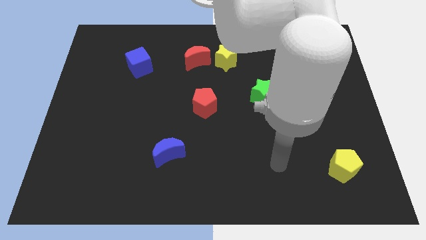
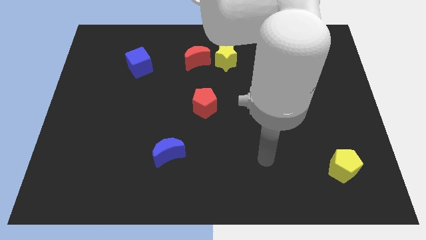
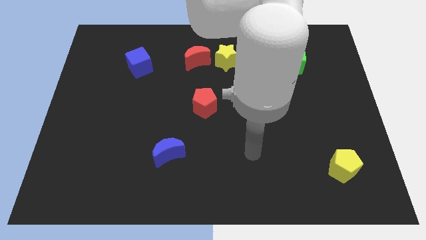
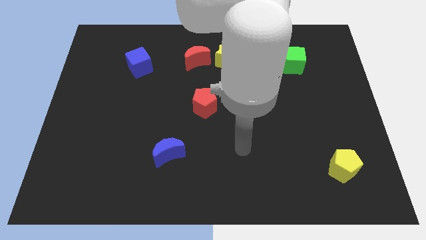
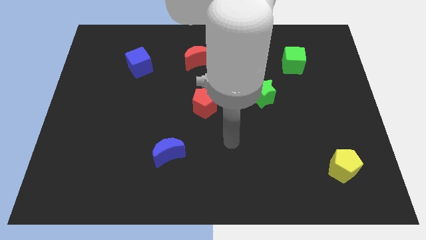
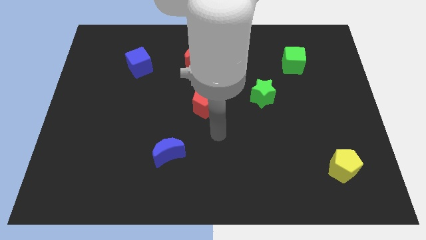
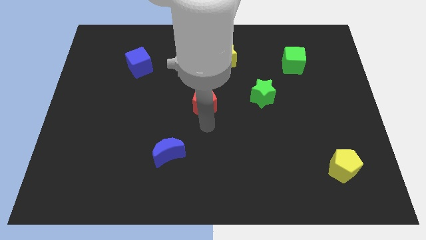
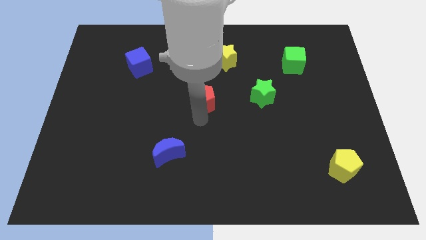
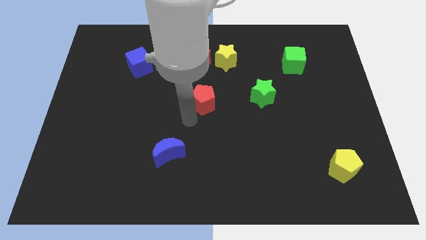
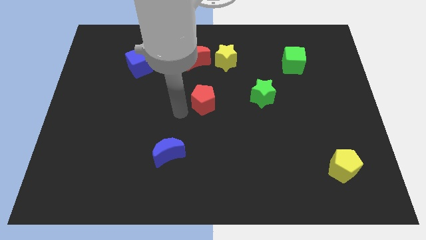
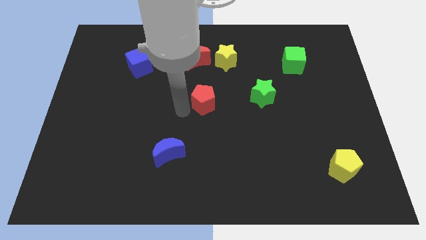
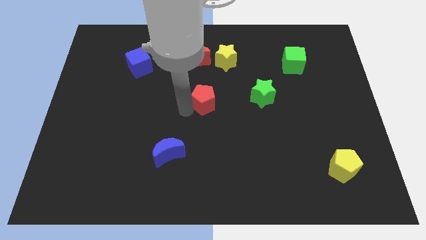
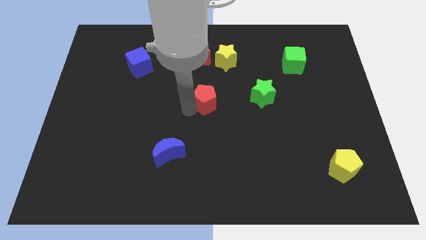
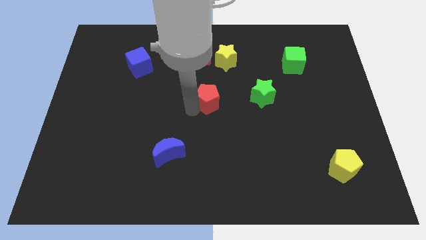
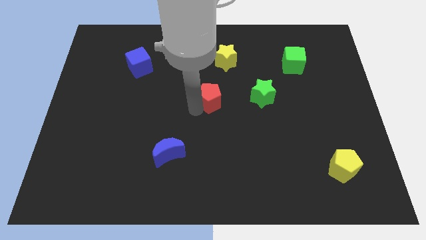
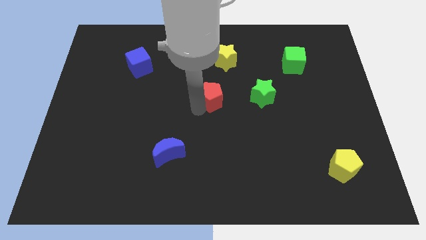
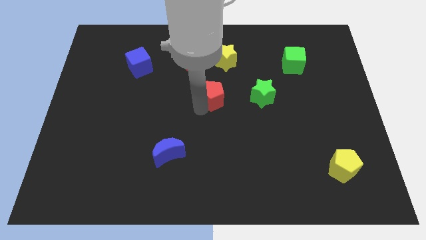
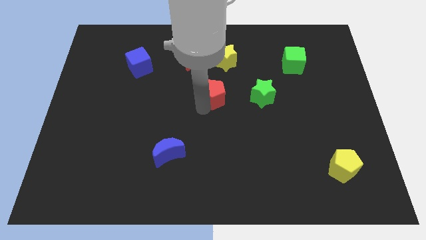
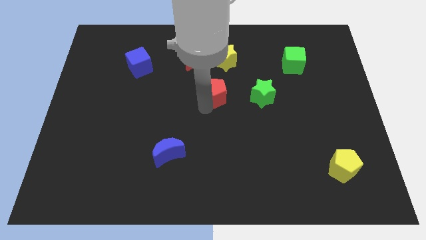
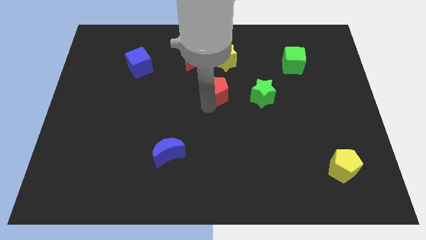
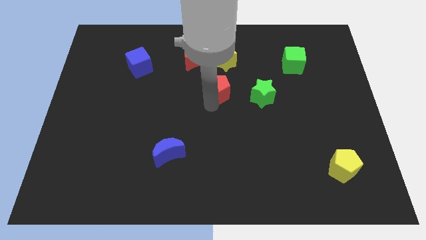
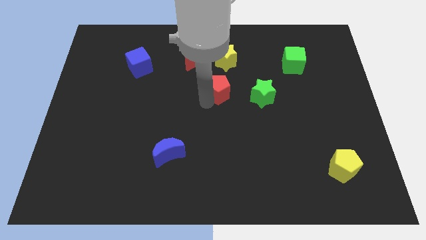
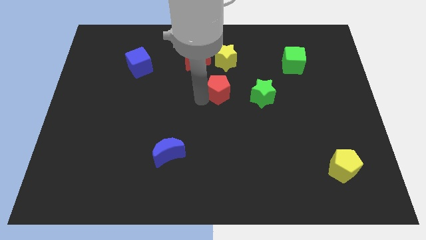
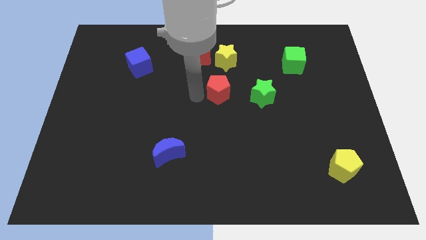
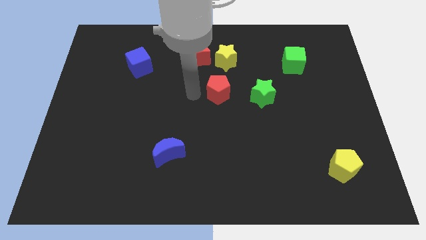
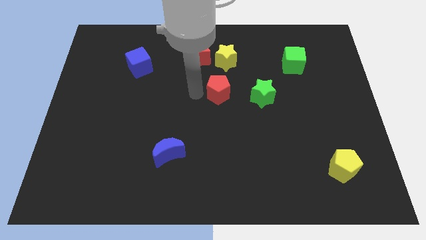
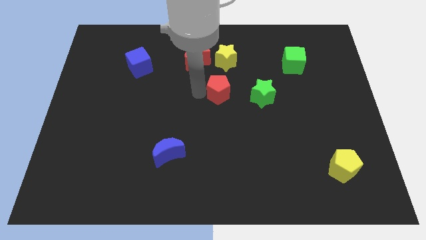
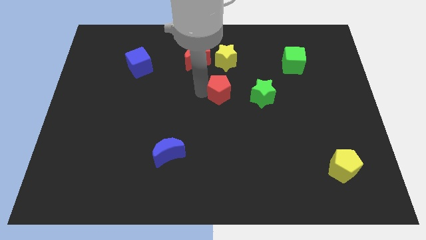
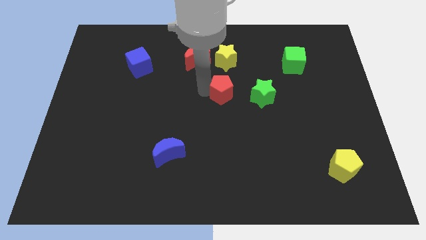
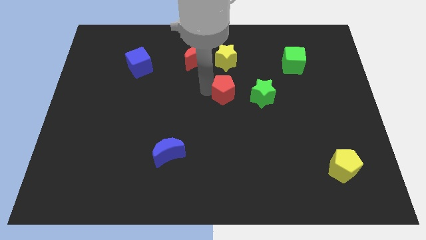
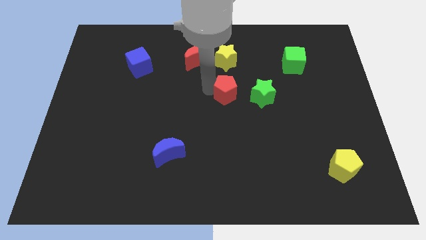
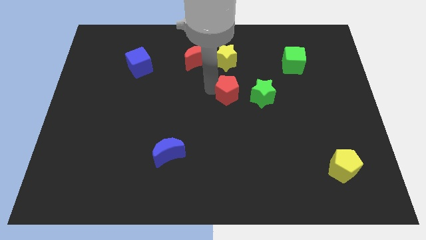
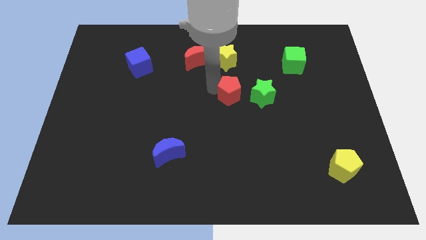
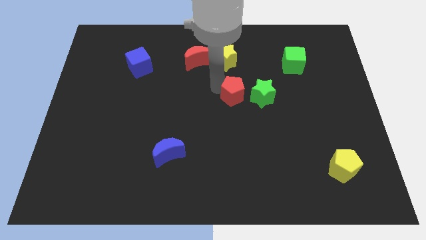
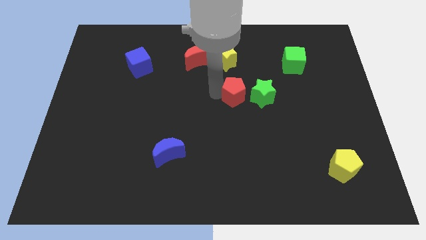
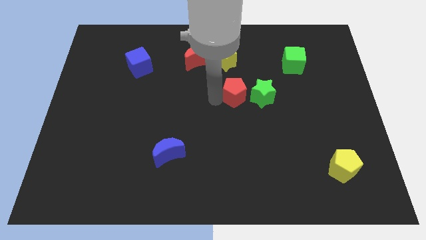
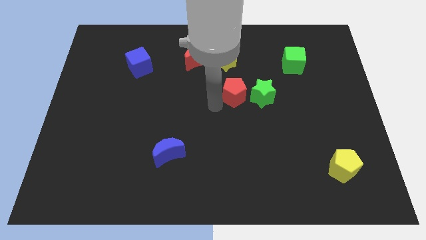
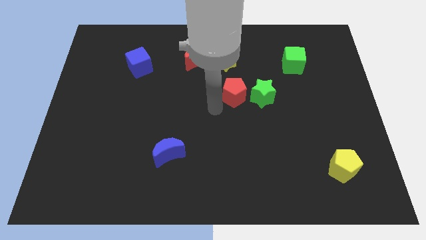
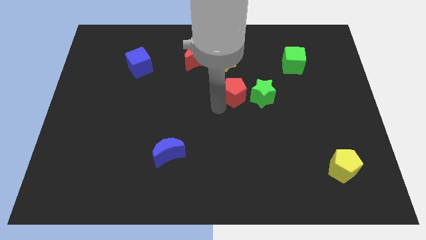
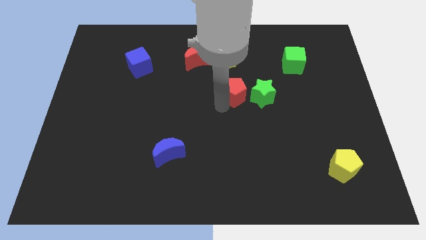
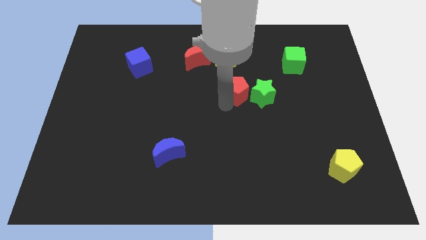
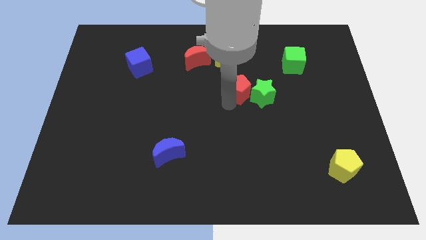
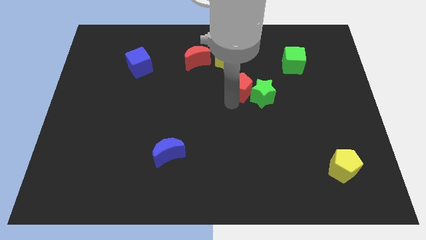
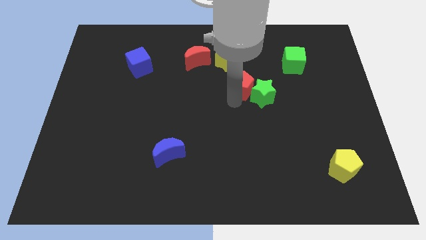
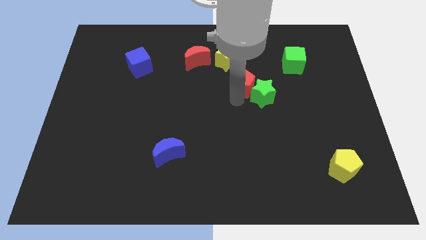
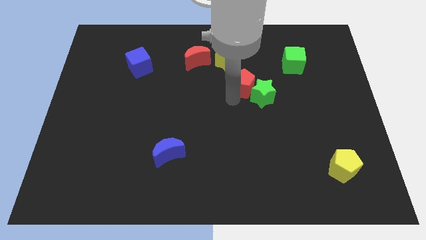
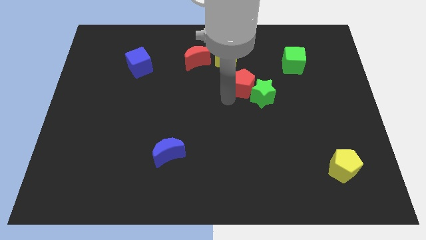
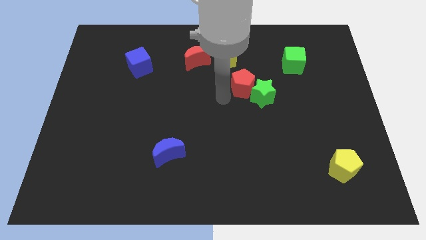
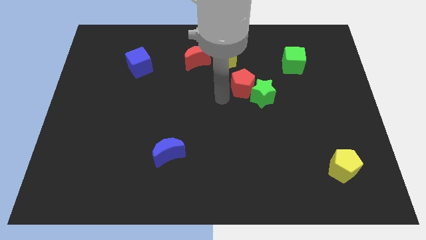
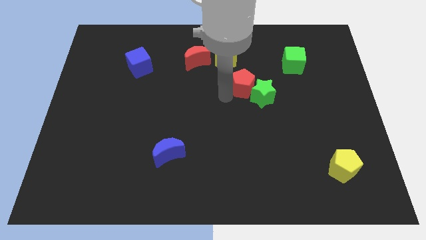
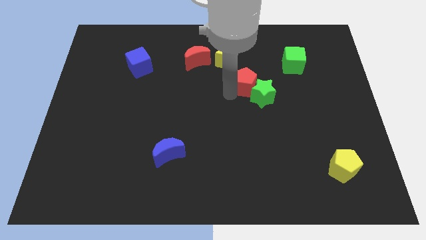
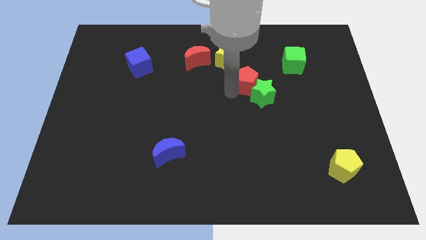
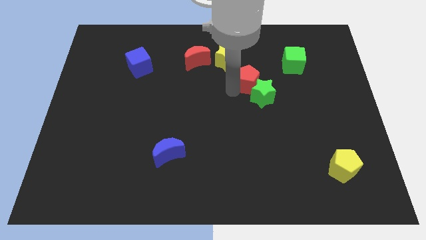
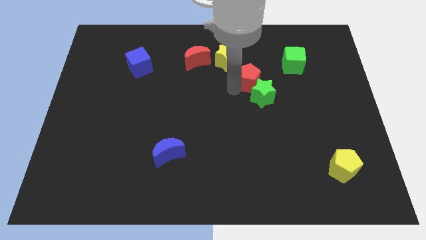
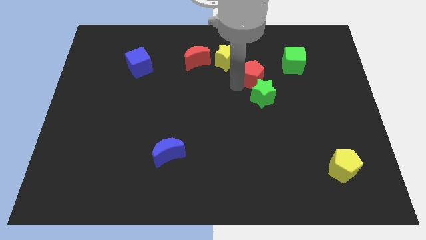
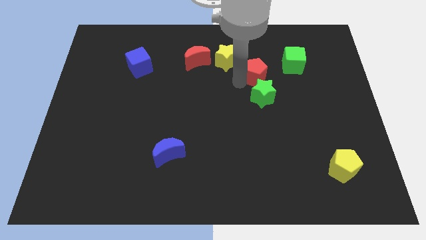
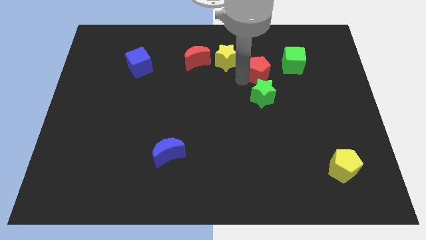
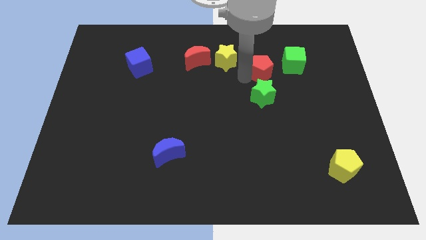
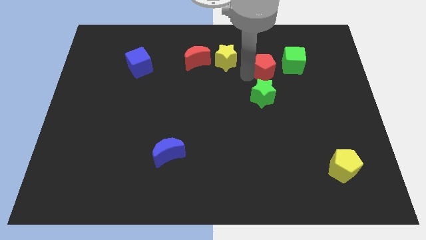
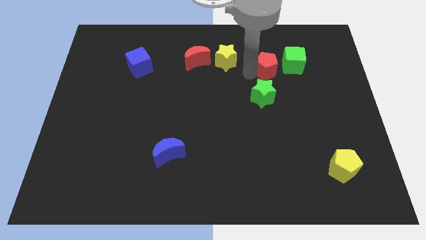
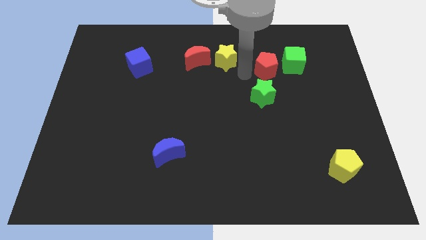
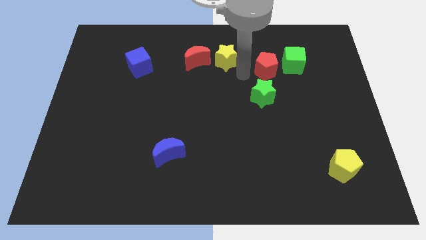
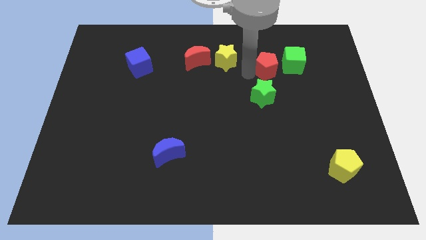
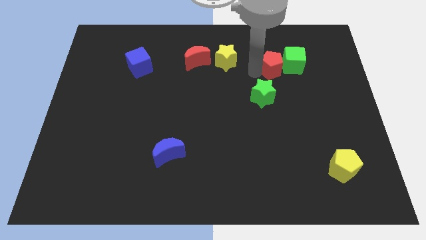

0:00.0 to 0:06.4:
move the red pentagon close to the green cube

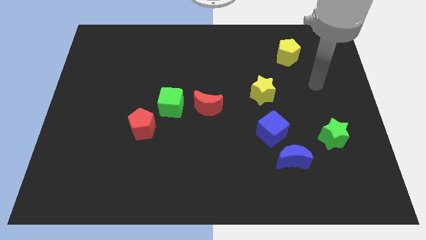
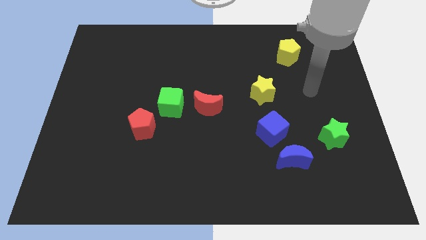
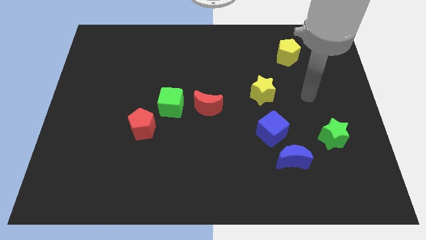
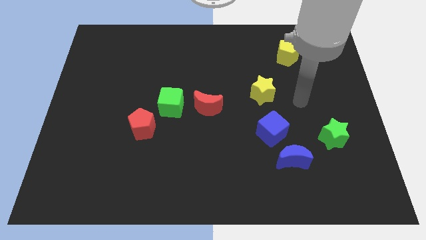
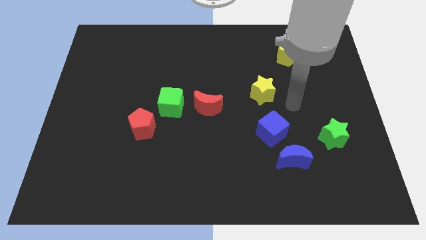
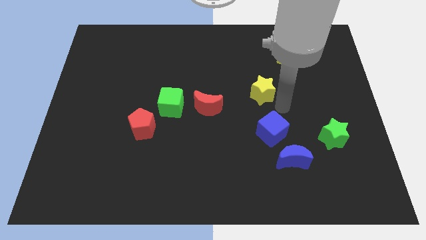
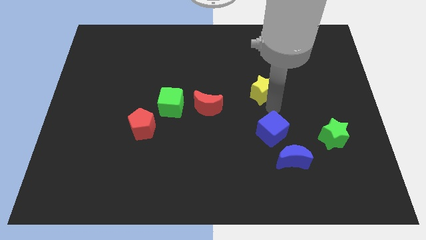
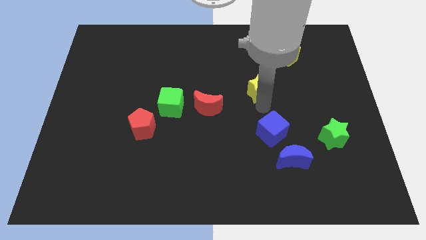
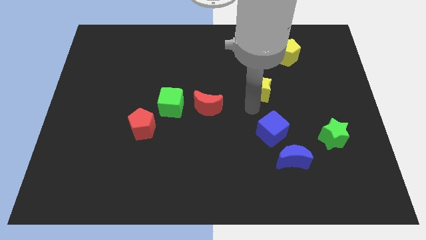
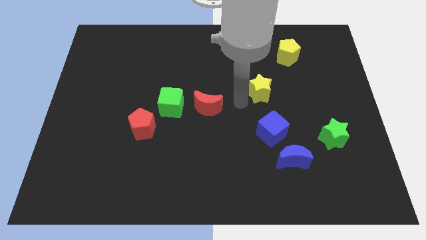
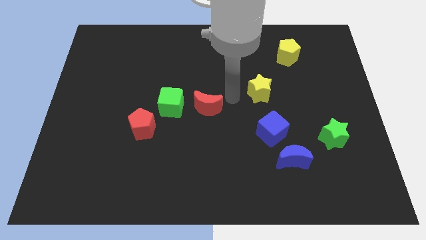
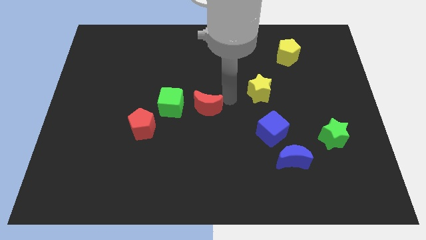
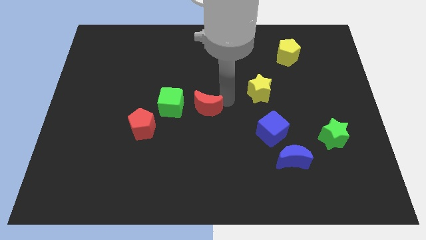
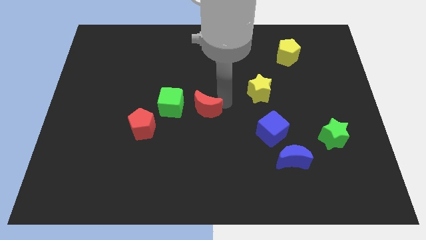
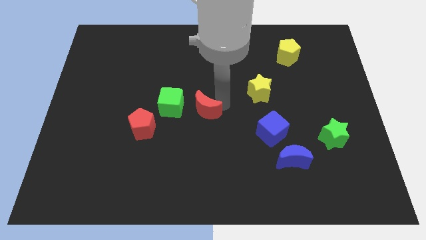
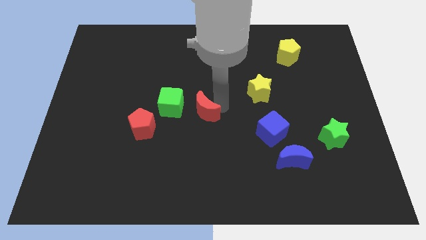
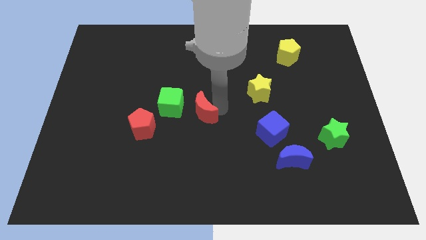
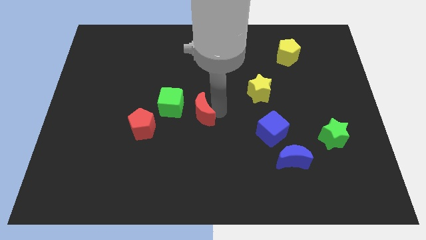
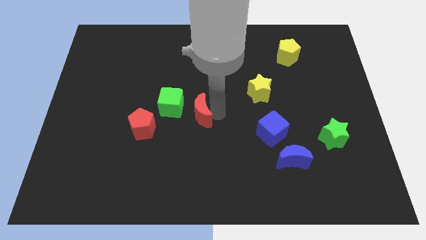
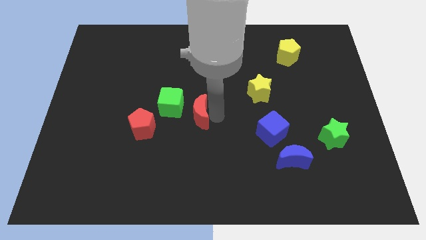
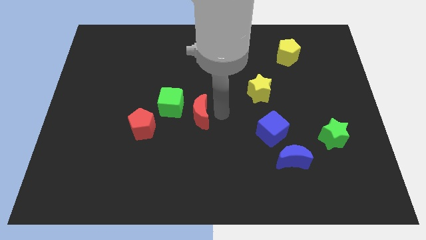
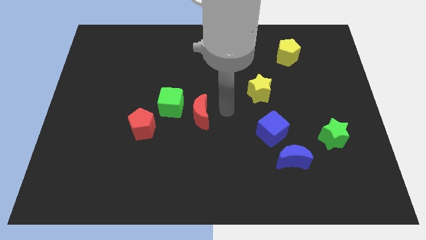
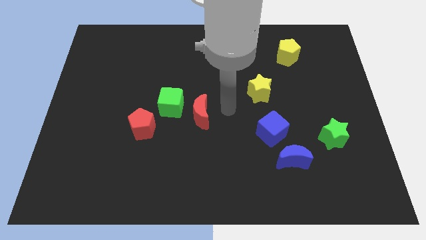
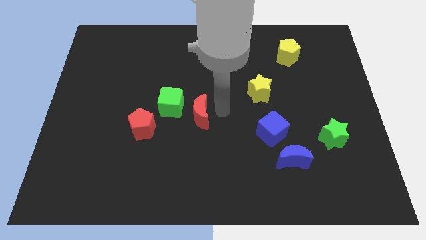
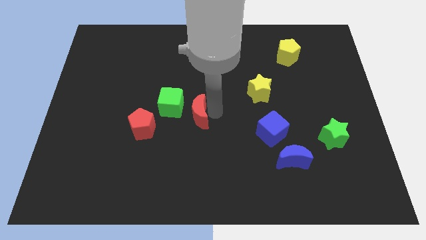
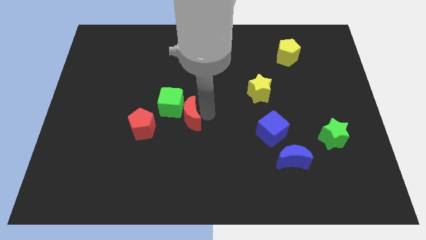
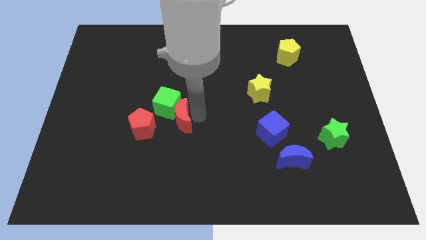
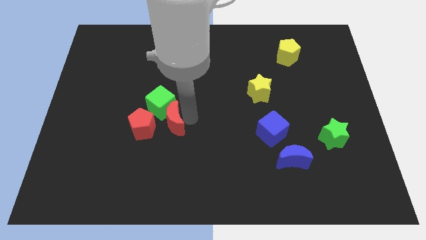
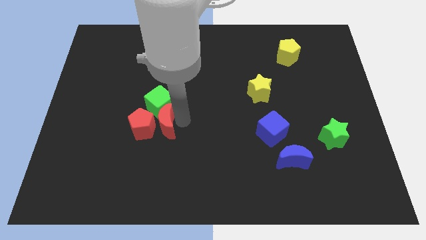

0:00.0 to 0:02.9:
move the red moon towards the red pentagon
